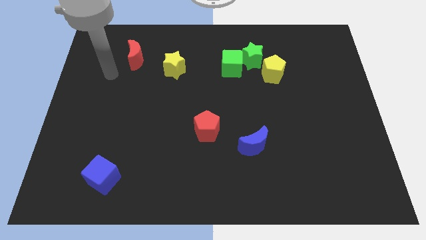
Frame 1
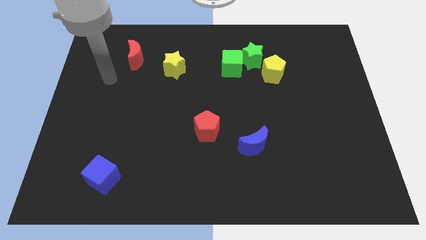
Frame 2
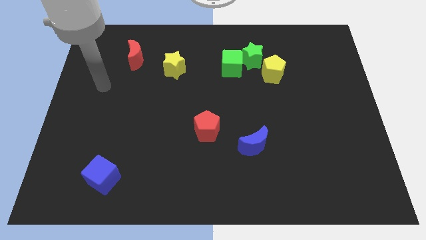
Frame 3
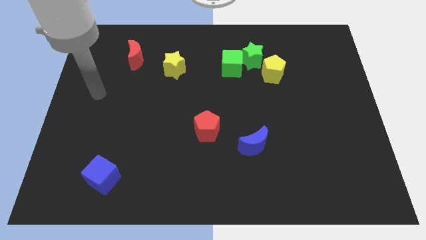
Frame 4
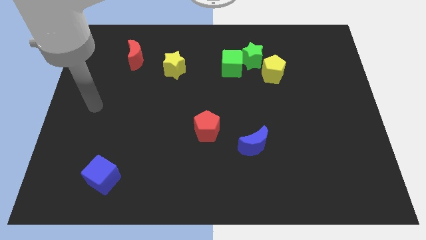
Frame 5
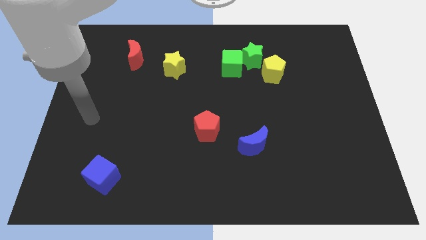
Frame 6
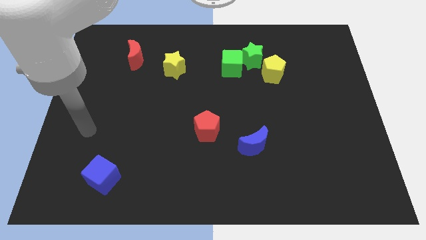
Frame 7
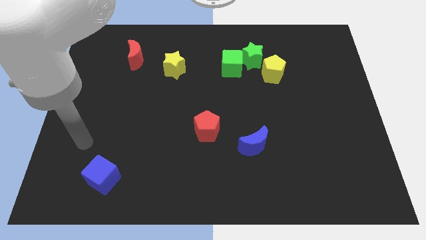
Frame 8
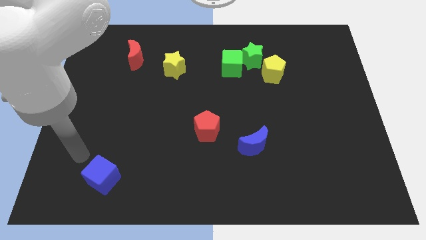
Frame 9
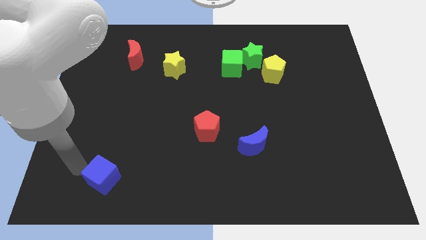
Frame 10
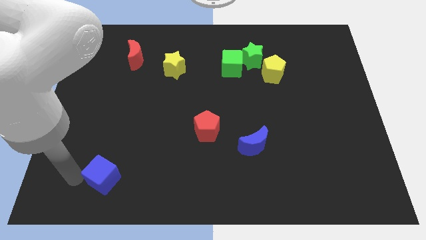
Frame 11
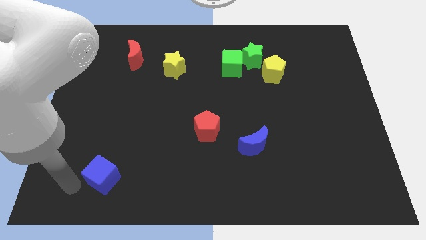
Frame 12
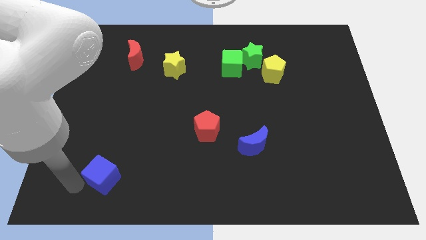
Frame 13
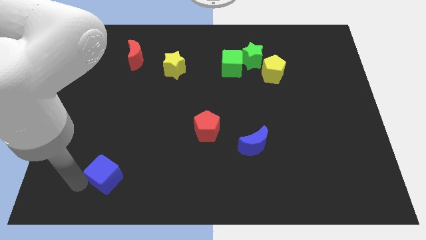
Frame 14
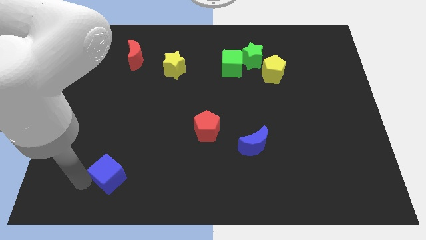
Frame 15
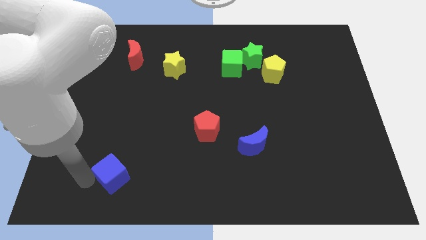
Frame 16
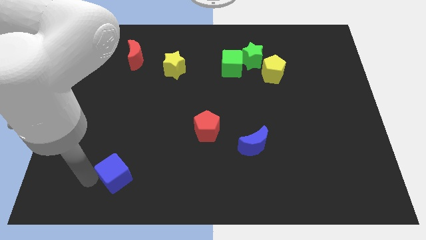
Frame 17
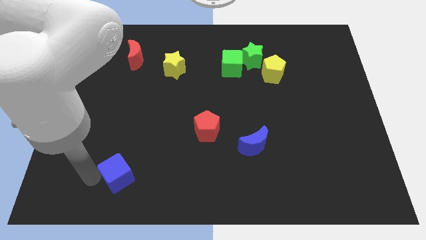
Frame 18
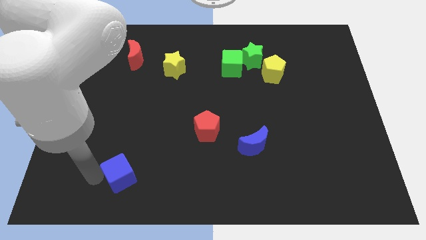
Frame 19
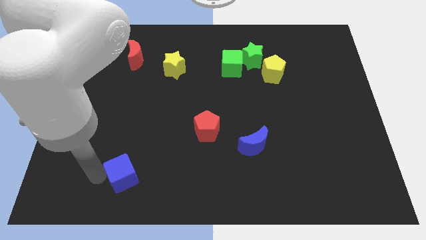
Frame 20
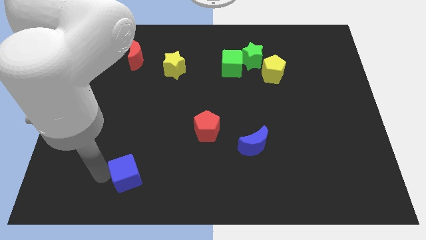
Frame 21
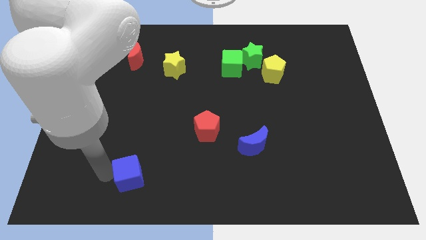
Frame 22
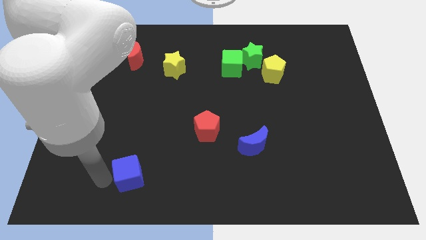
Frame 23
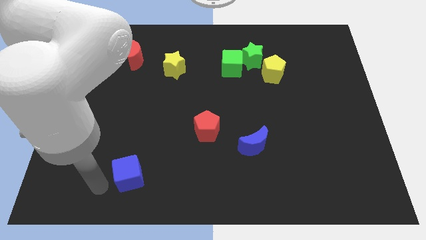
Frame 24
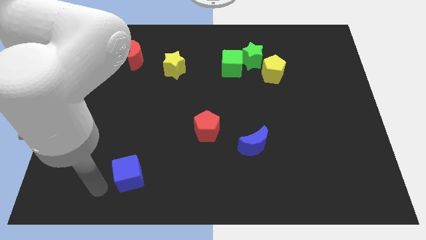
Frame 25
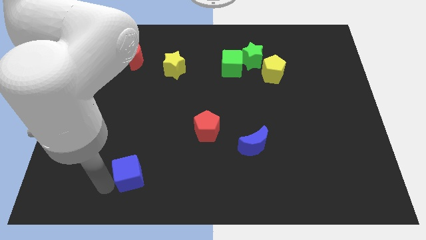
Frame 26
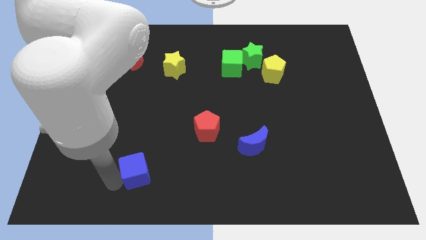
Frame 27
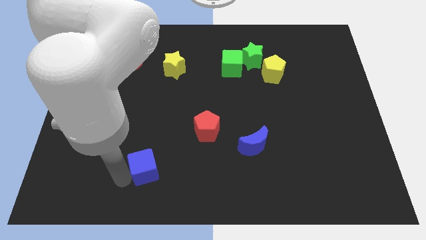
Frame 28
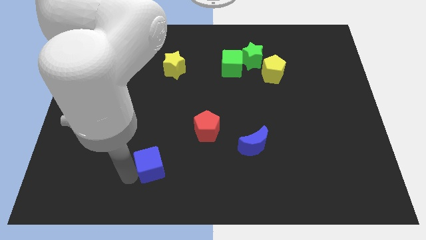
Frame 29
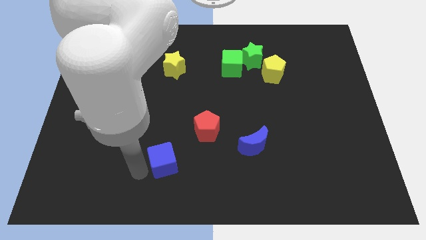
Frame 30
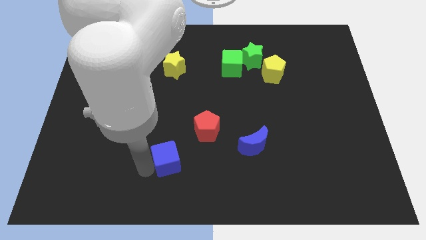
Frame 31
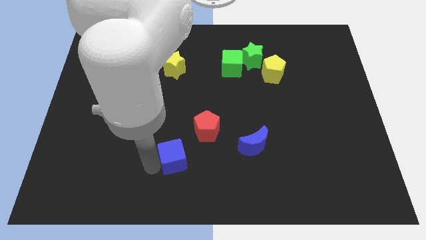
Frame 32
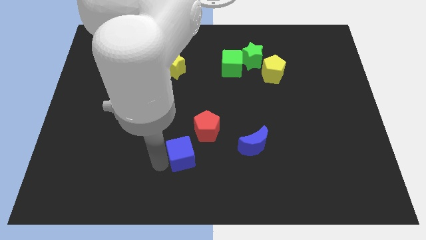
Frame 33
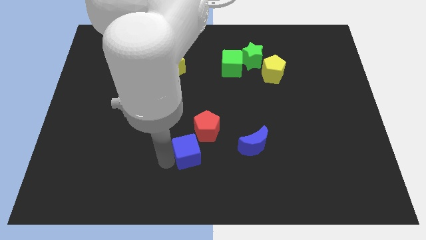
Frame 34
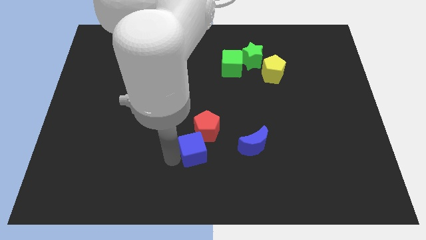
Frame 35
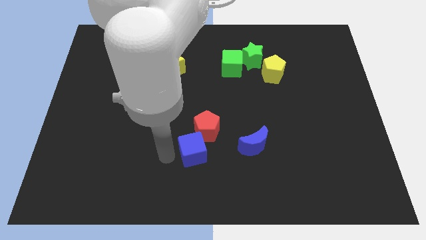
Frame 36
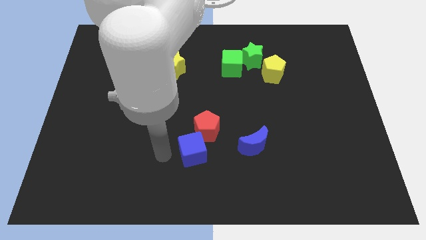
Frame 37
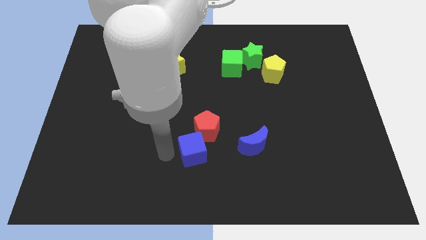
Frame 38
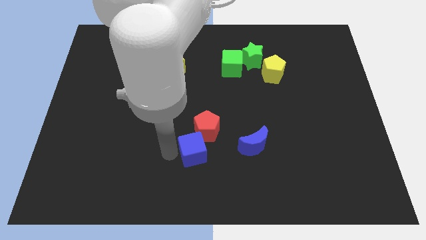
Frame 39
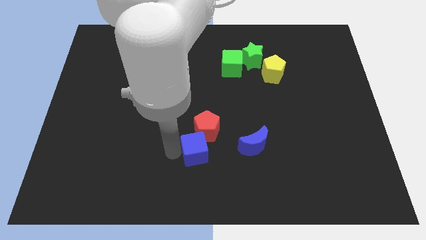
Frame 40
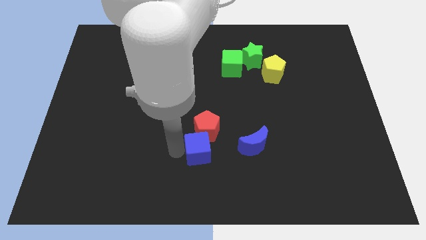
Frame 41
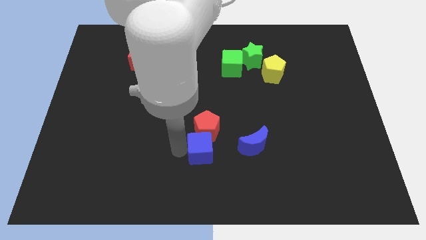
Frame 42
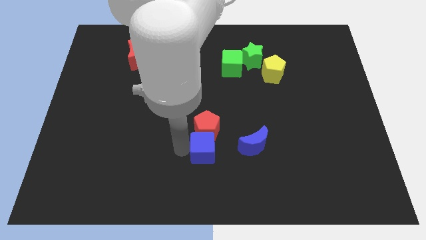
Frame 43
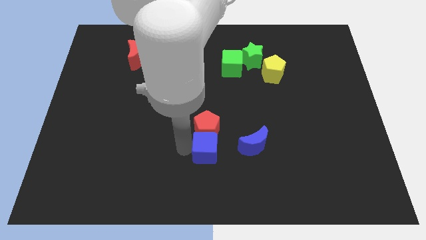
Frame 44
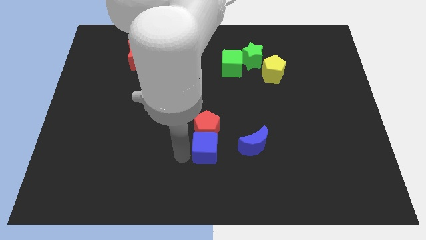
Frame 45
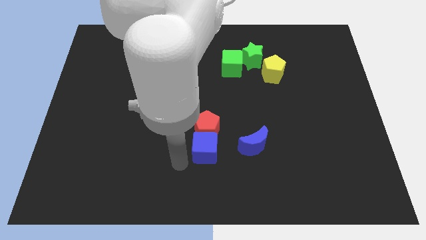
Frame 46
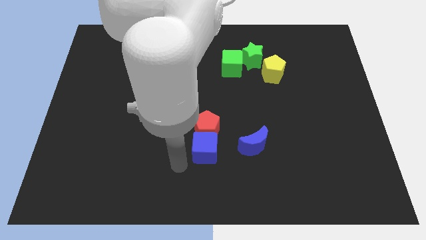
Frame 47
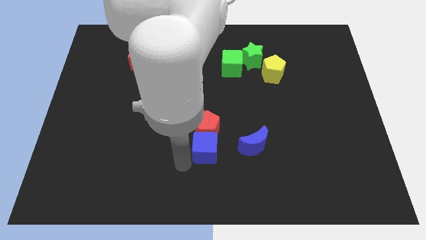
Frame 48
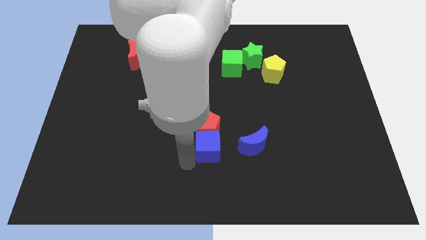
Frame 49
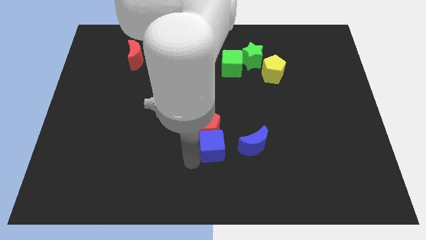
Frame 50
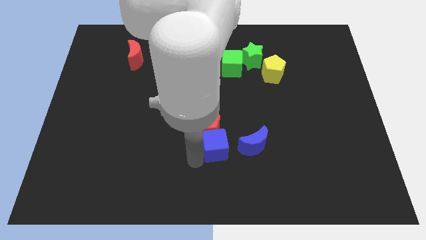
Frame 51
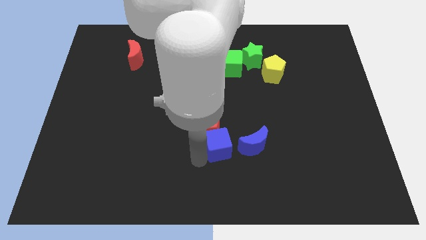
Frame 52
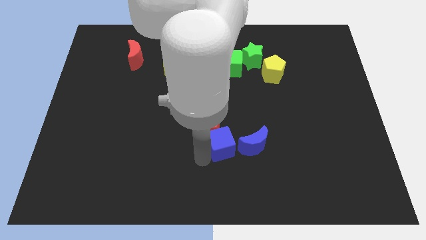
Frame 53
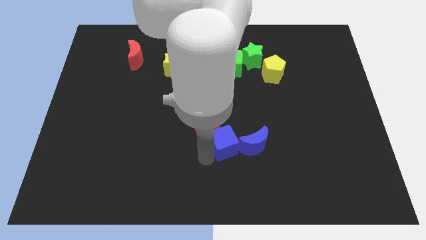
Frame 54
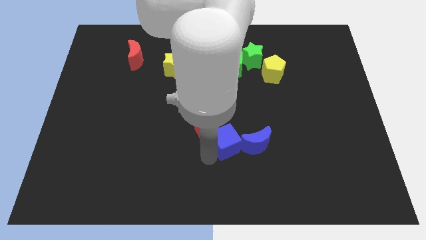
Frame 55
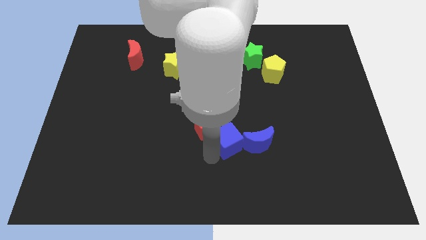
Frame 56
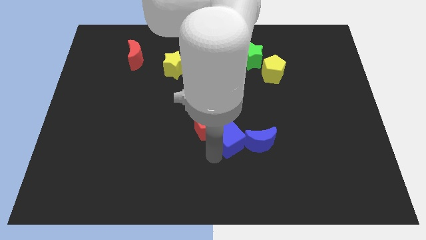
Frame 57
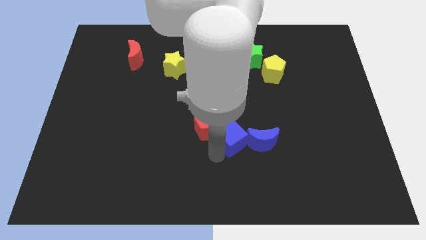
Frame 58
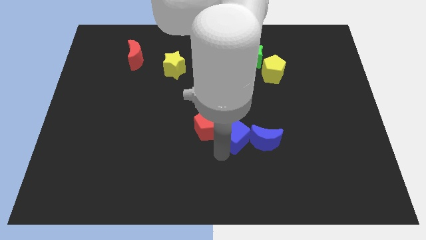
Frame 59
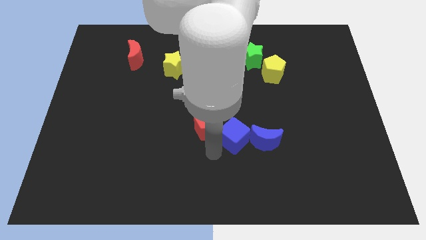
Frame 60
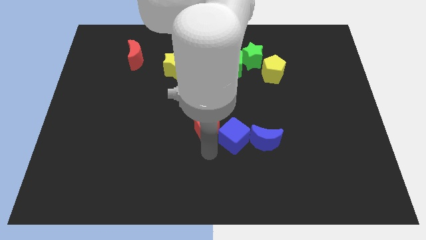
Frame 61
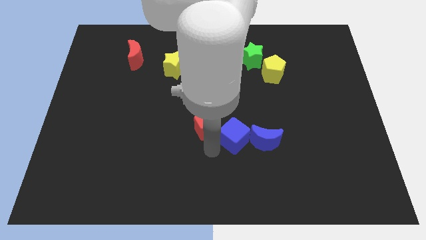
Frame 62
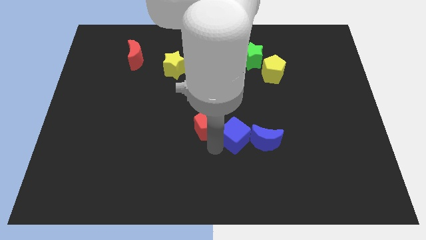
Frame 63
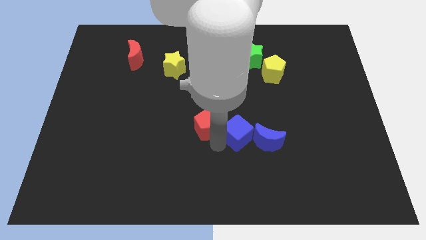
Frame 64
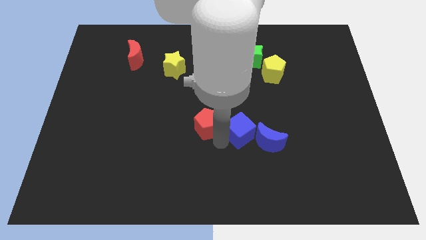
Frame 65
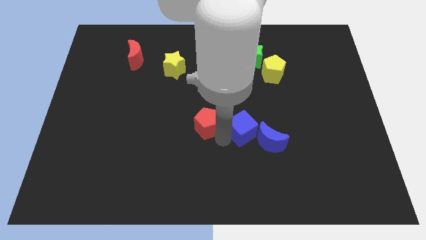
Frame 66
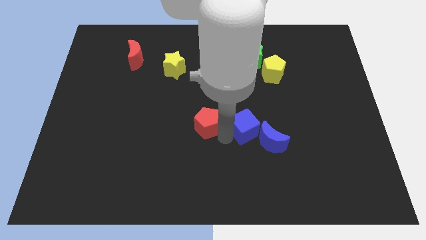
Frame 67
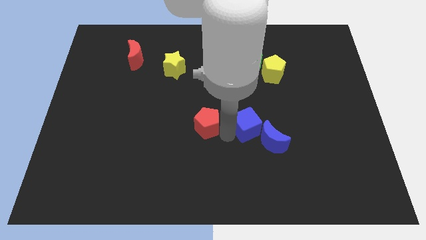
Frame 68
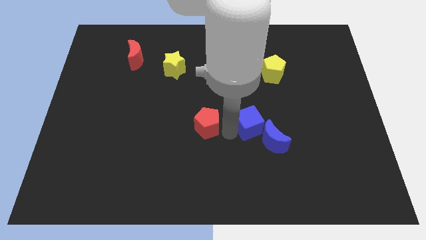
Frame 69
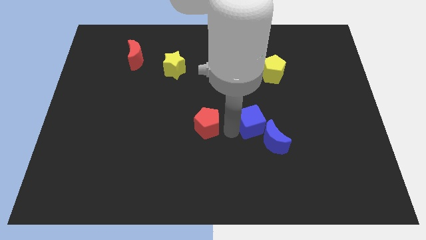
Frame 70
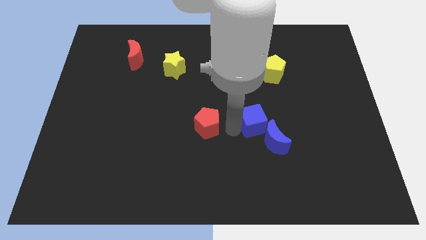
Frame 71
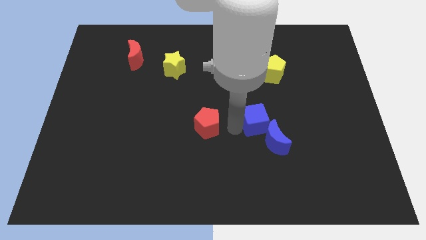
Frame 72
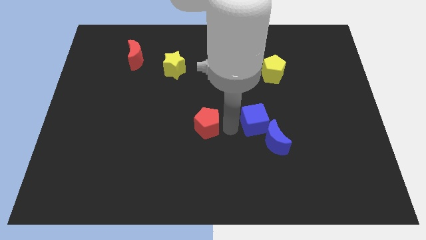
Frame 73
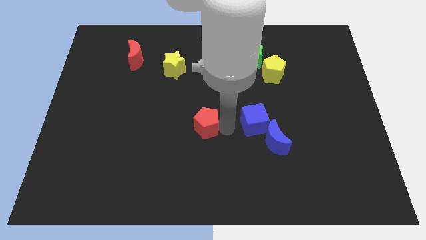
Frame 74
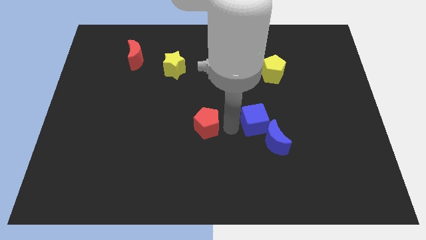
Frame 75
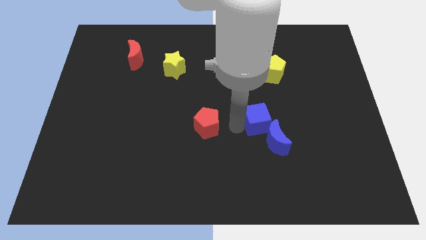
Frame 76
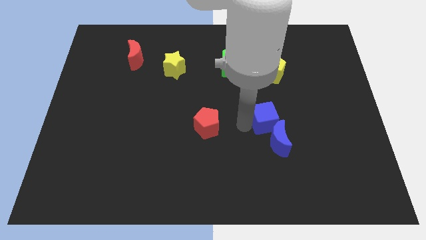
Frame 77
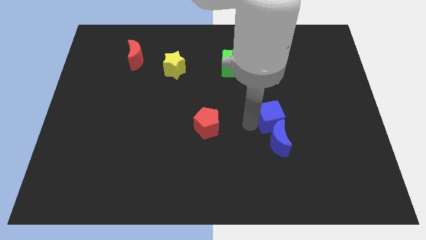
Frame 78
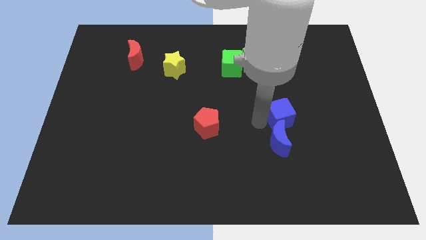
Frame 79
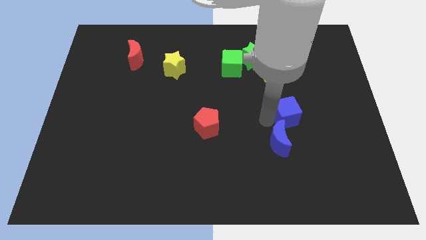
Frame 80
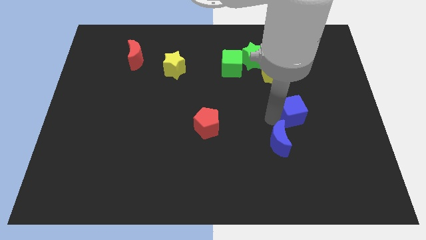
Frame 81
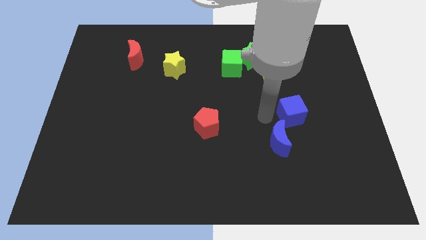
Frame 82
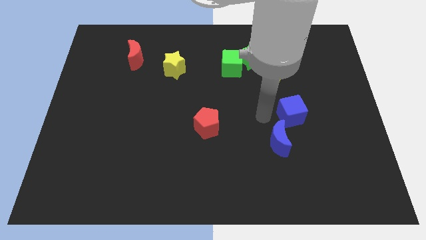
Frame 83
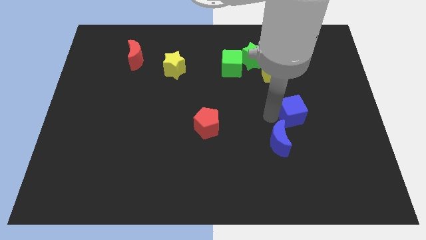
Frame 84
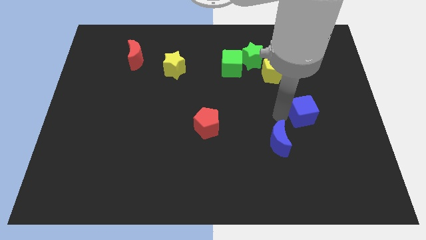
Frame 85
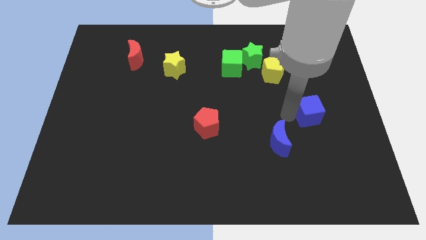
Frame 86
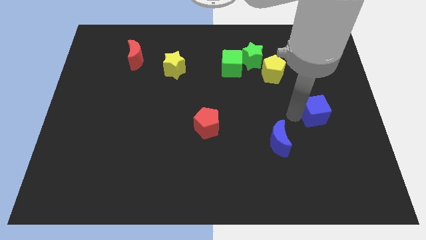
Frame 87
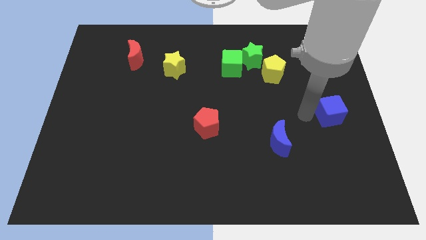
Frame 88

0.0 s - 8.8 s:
put the blue cube to the right side of the board
